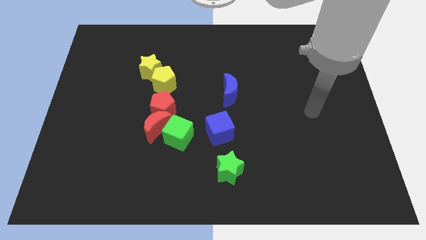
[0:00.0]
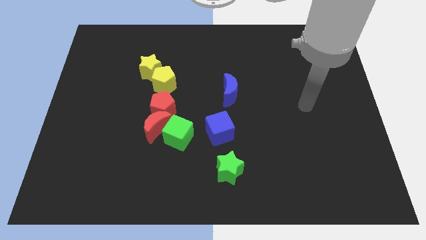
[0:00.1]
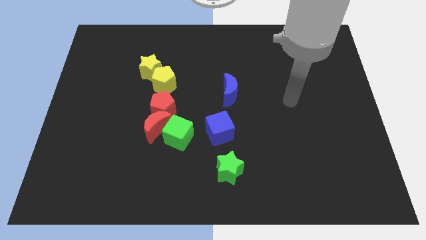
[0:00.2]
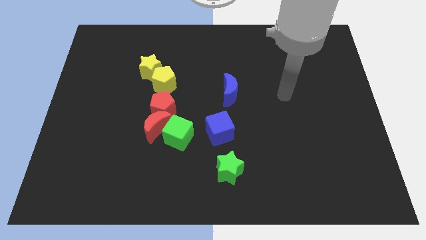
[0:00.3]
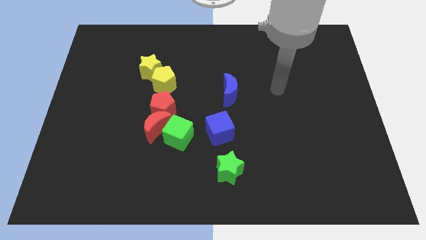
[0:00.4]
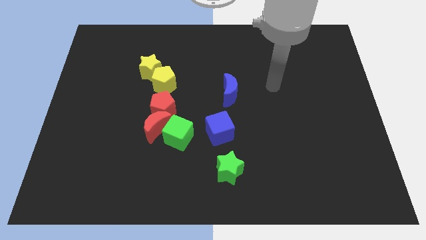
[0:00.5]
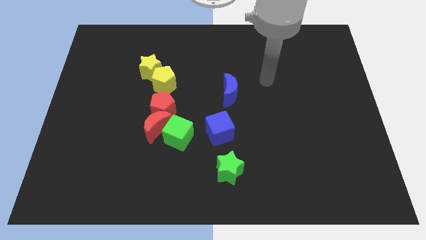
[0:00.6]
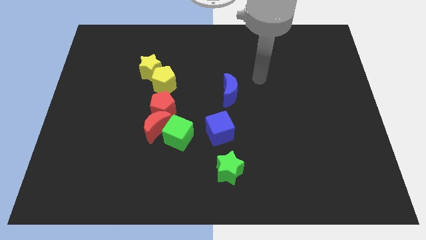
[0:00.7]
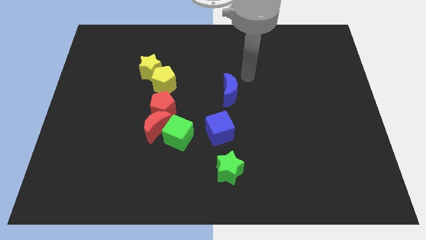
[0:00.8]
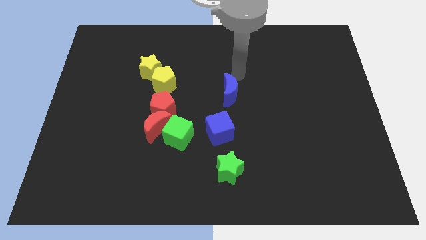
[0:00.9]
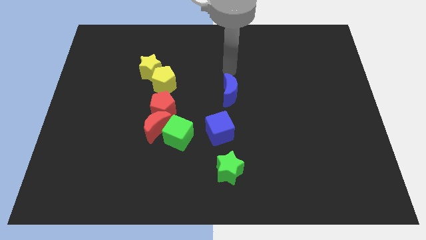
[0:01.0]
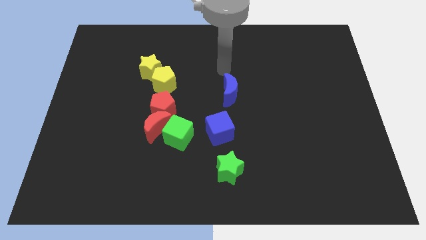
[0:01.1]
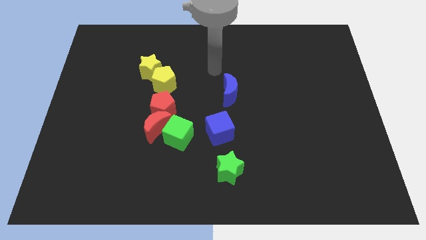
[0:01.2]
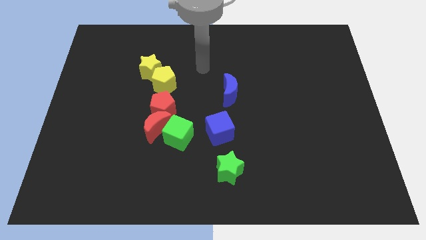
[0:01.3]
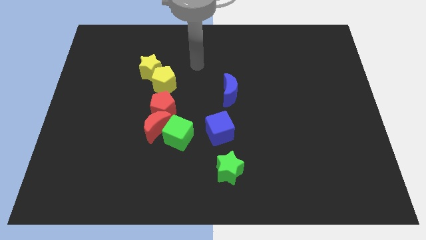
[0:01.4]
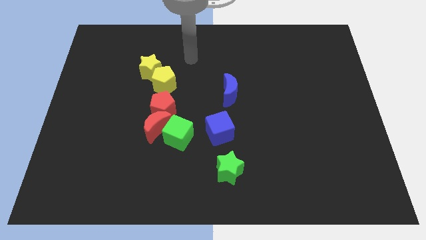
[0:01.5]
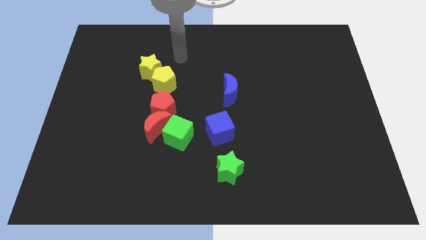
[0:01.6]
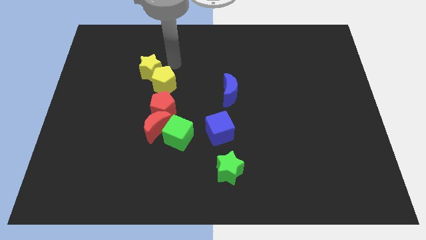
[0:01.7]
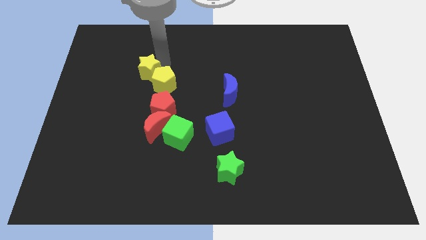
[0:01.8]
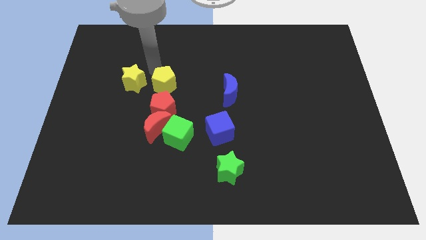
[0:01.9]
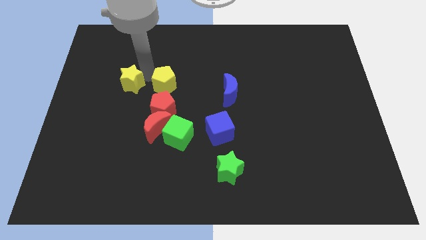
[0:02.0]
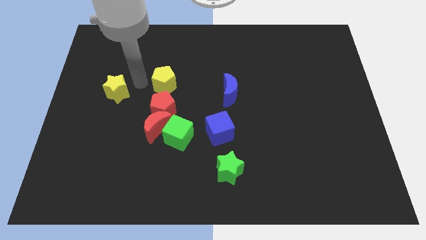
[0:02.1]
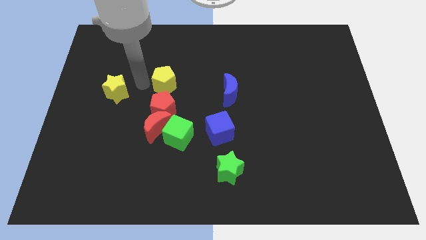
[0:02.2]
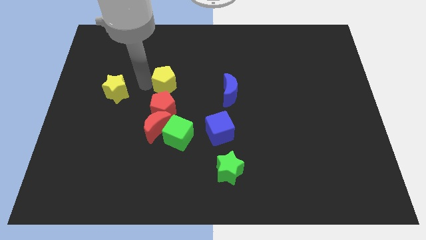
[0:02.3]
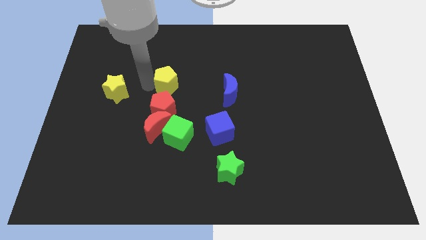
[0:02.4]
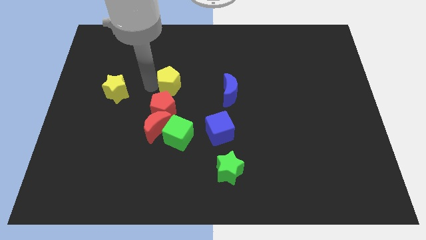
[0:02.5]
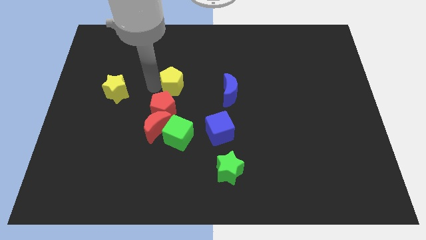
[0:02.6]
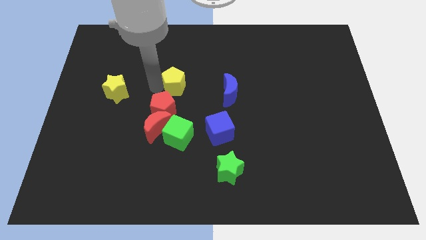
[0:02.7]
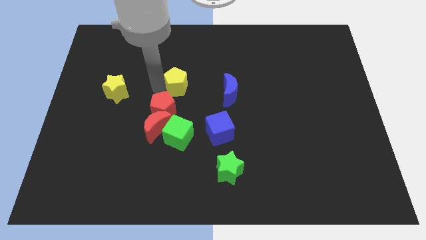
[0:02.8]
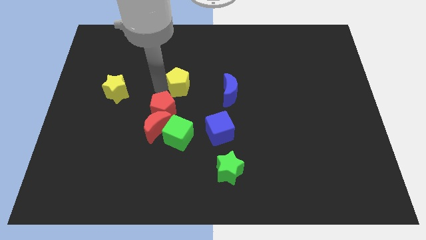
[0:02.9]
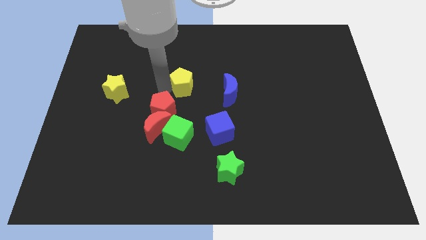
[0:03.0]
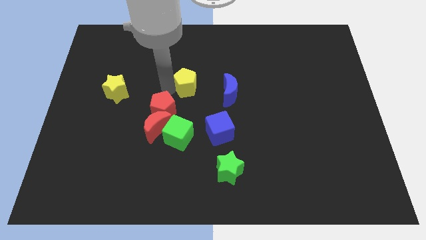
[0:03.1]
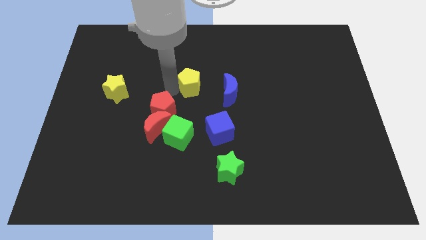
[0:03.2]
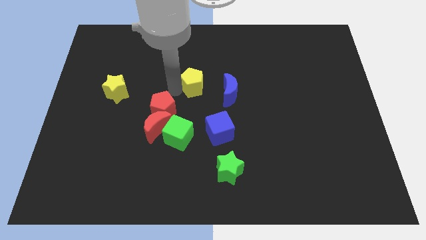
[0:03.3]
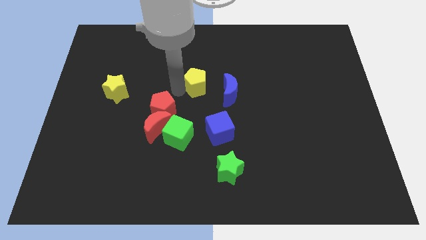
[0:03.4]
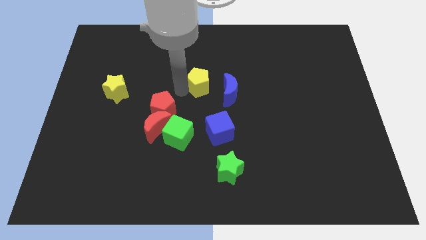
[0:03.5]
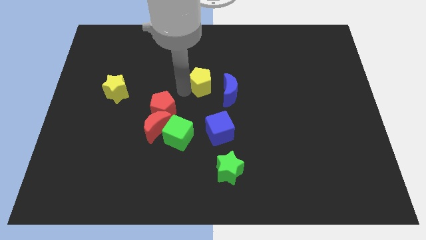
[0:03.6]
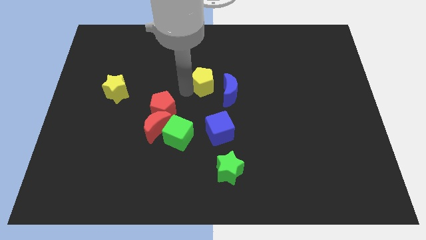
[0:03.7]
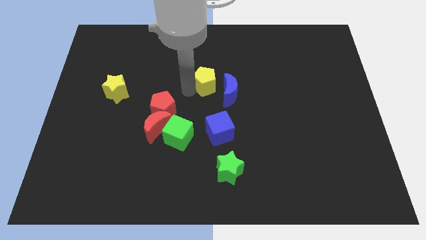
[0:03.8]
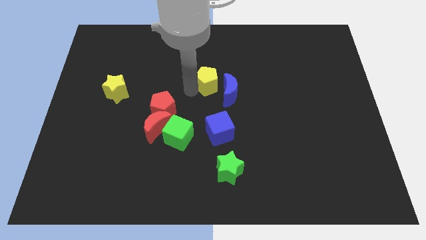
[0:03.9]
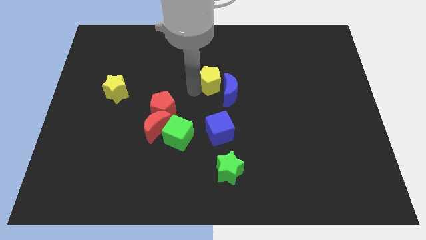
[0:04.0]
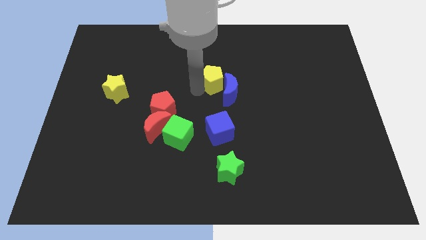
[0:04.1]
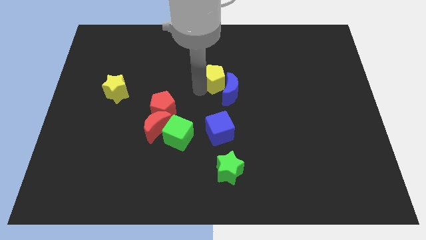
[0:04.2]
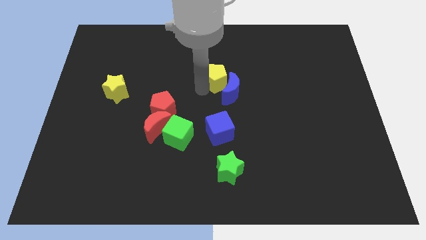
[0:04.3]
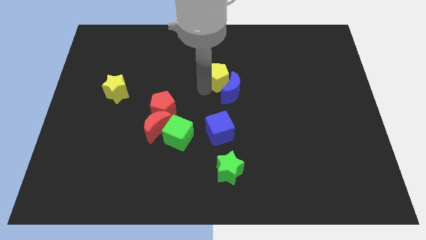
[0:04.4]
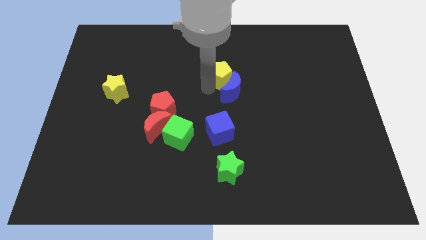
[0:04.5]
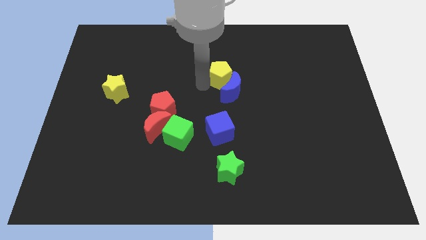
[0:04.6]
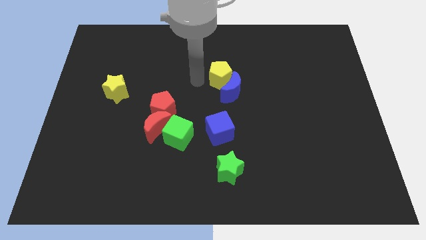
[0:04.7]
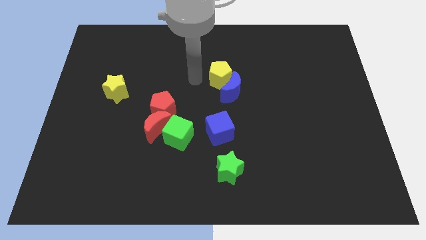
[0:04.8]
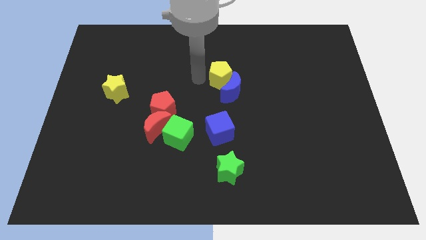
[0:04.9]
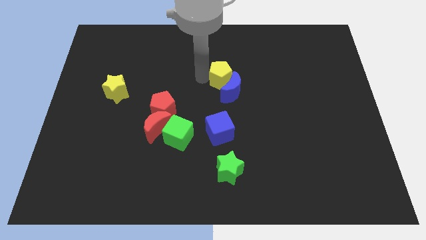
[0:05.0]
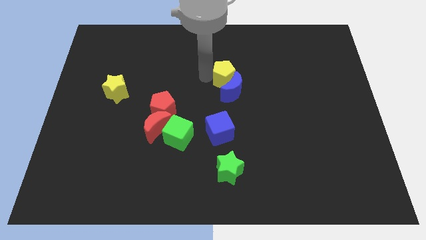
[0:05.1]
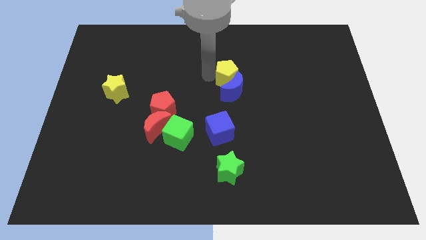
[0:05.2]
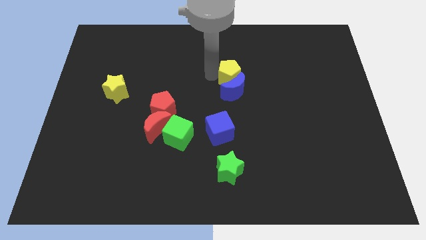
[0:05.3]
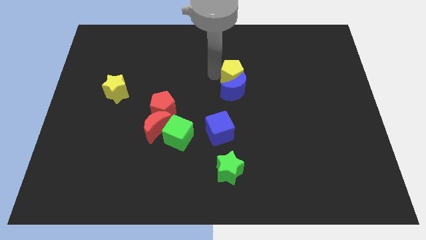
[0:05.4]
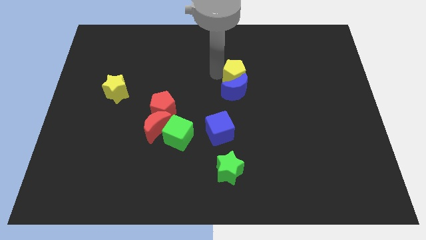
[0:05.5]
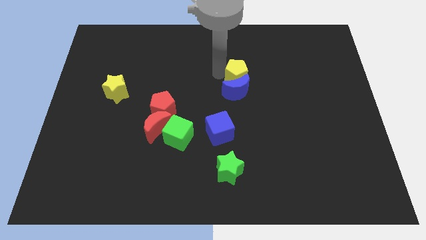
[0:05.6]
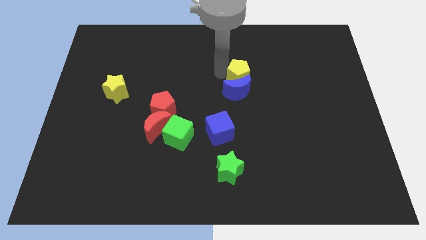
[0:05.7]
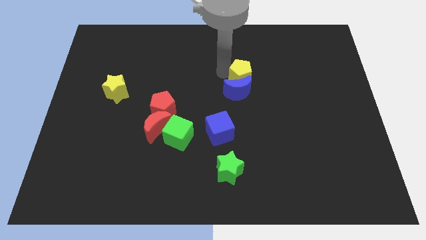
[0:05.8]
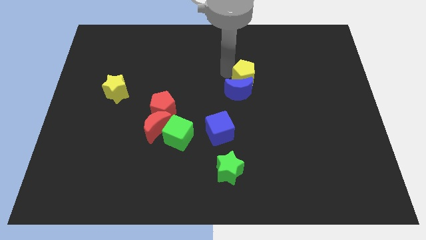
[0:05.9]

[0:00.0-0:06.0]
push the yellow pentagon to the right

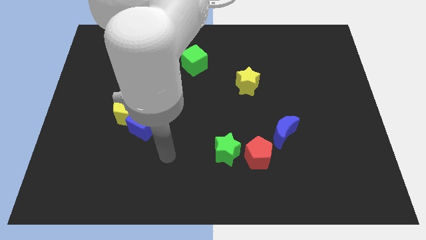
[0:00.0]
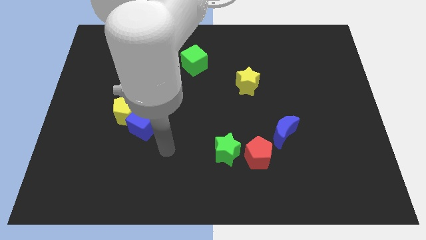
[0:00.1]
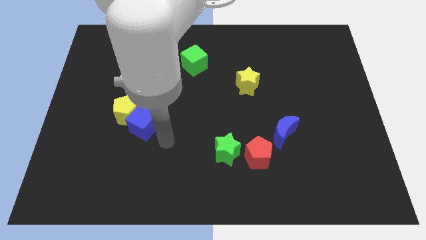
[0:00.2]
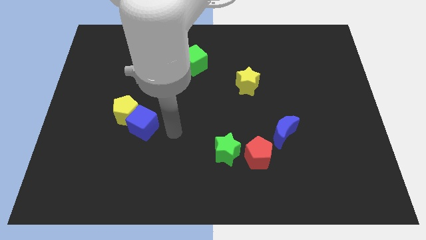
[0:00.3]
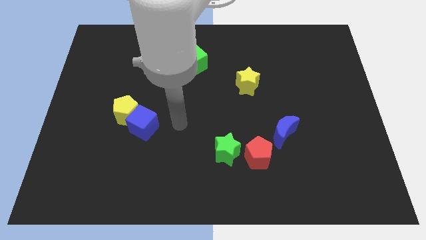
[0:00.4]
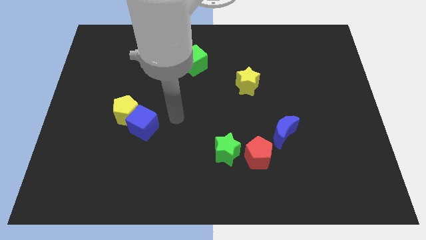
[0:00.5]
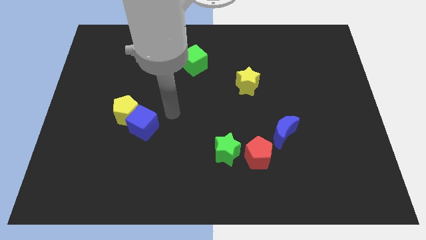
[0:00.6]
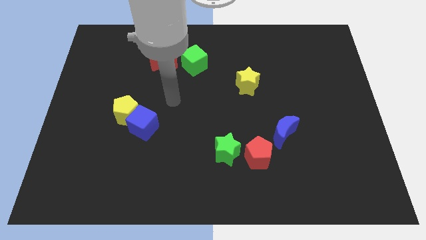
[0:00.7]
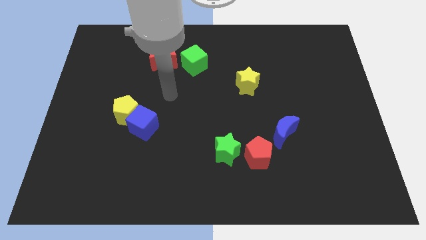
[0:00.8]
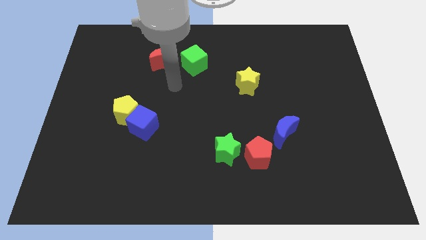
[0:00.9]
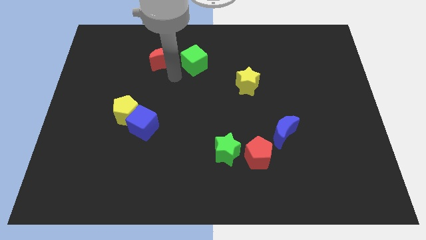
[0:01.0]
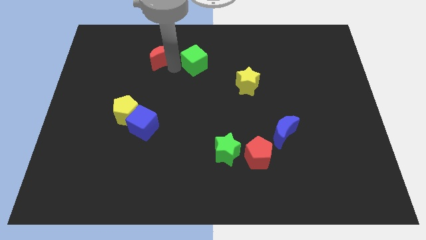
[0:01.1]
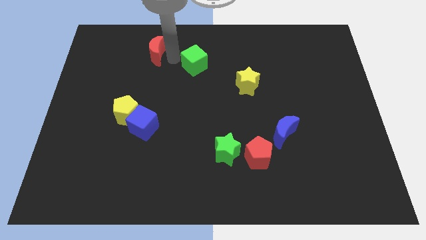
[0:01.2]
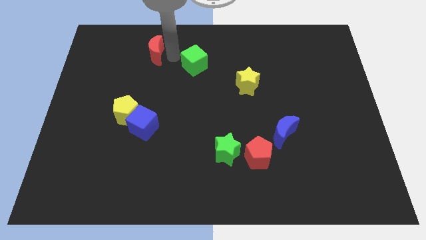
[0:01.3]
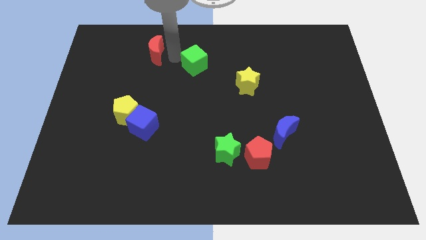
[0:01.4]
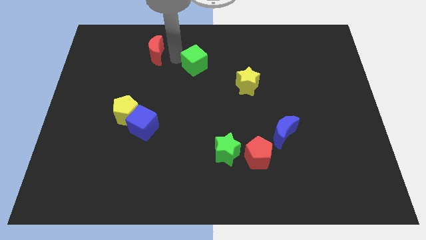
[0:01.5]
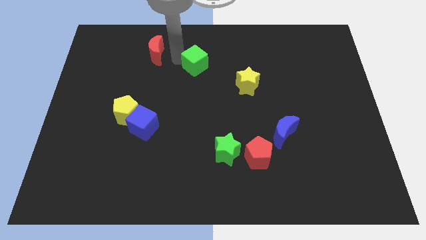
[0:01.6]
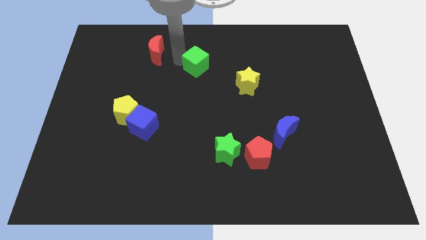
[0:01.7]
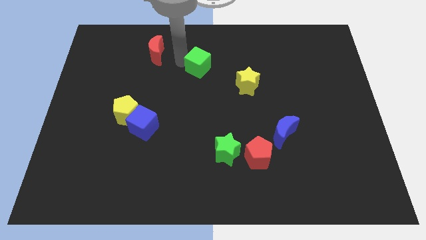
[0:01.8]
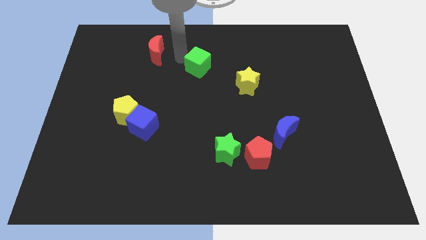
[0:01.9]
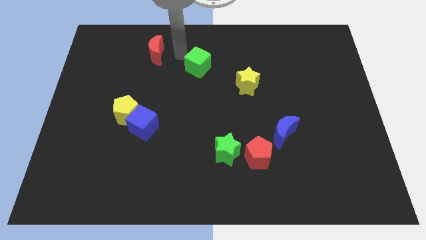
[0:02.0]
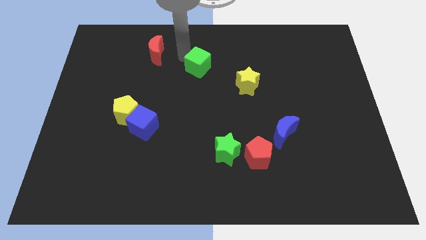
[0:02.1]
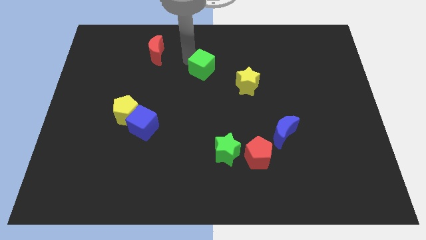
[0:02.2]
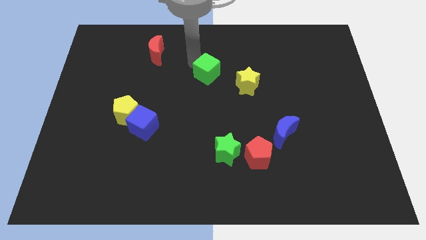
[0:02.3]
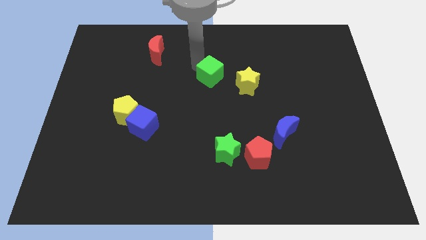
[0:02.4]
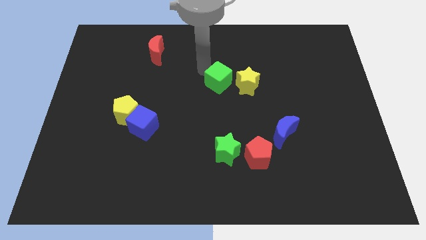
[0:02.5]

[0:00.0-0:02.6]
push the green cube down and right a little bit
